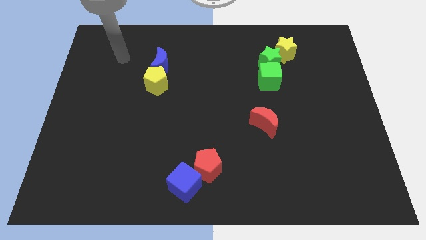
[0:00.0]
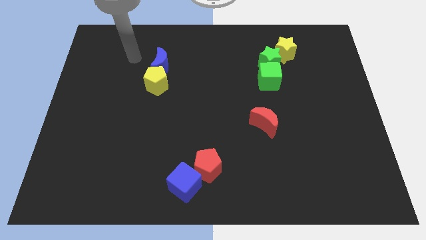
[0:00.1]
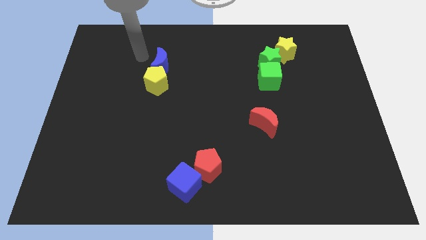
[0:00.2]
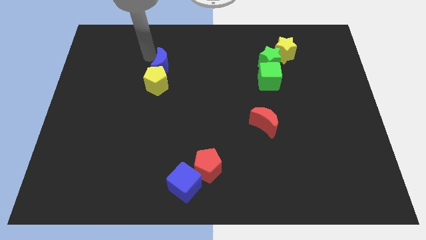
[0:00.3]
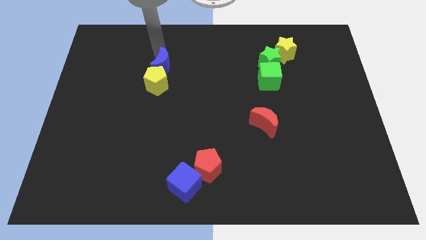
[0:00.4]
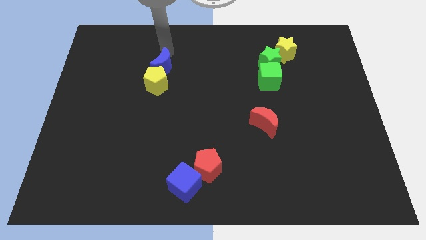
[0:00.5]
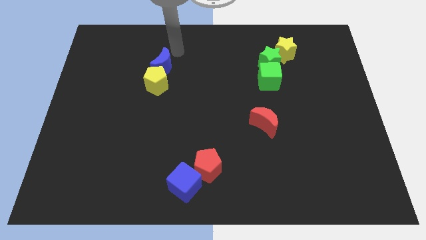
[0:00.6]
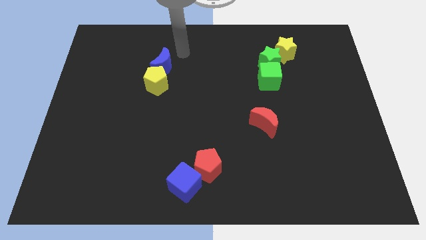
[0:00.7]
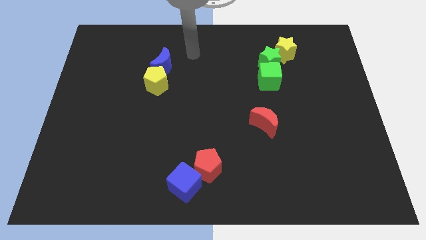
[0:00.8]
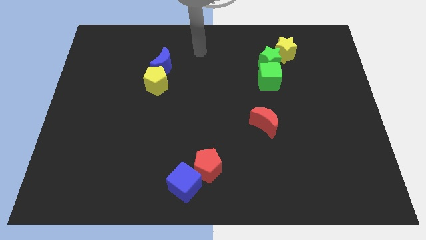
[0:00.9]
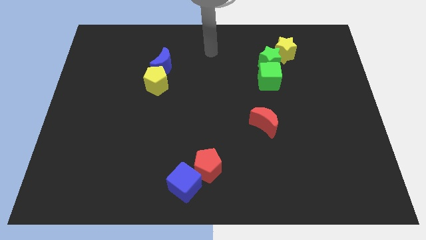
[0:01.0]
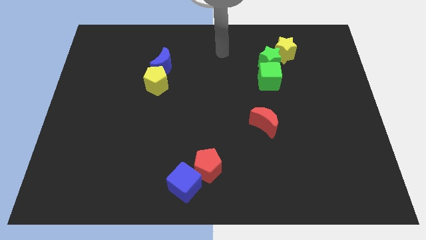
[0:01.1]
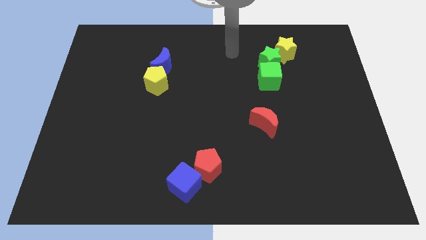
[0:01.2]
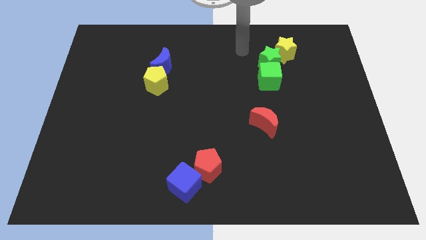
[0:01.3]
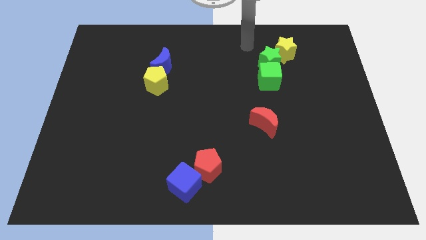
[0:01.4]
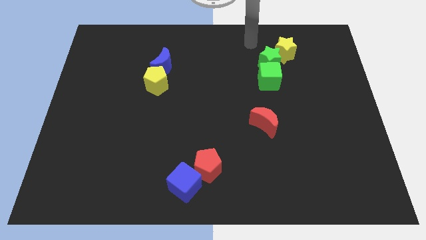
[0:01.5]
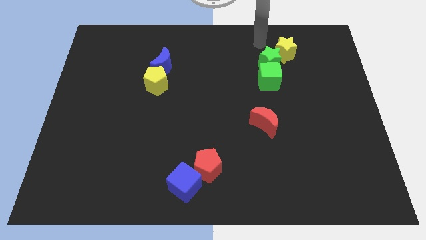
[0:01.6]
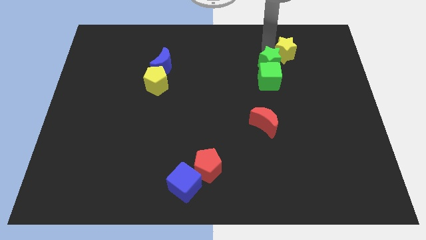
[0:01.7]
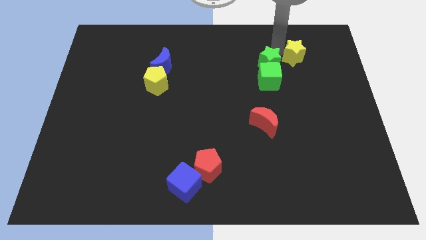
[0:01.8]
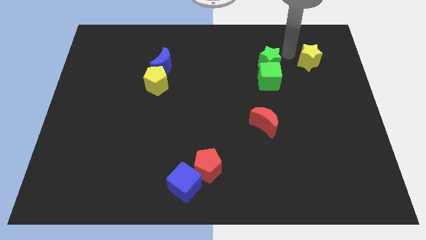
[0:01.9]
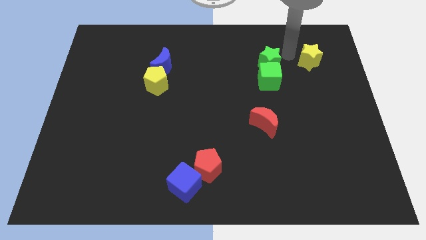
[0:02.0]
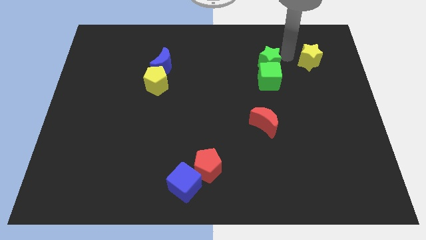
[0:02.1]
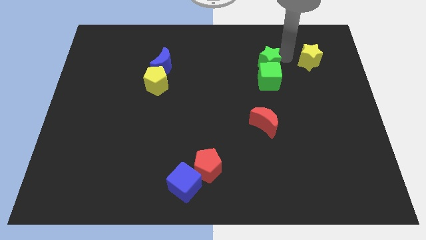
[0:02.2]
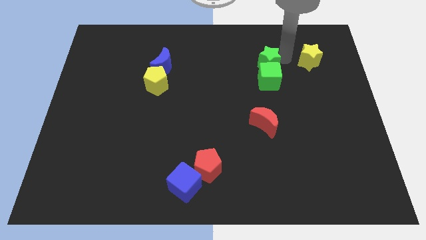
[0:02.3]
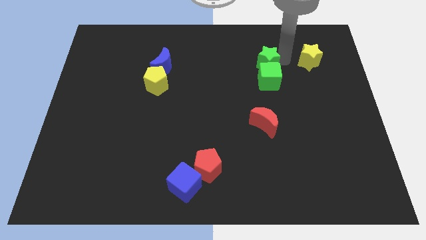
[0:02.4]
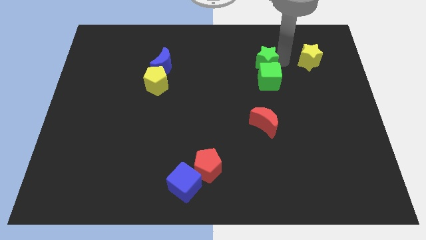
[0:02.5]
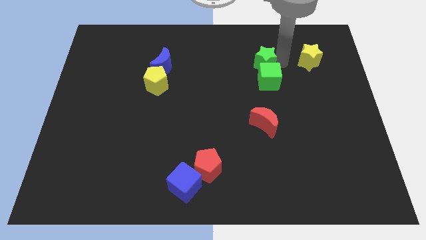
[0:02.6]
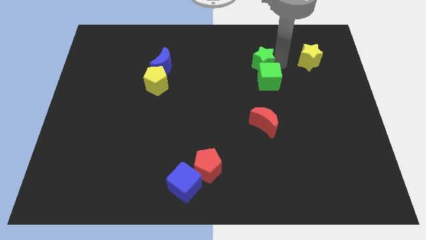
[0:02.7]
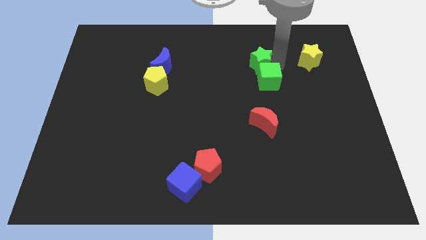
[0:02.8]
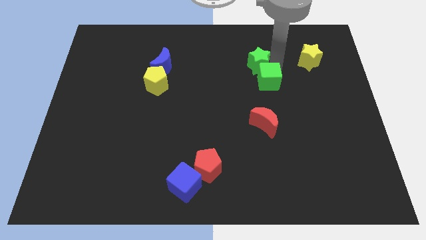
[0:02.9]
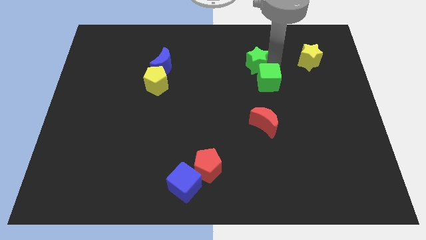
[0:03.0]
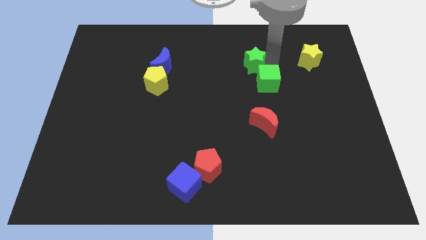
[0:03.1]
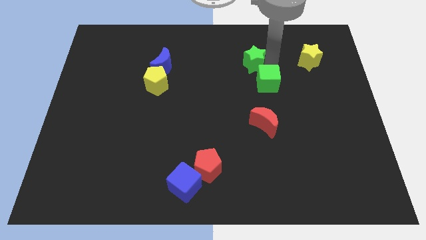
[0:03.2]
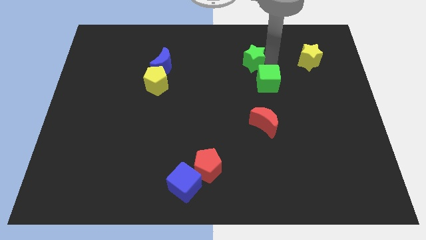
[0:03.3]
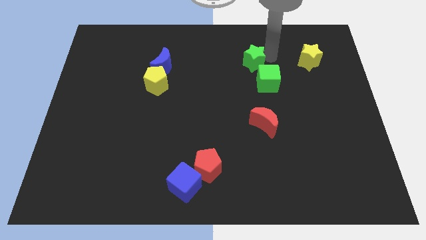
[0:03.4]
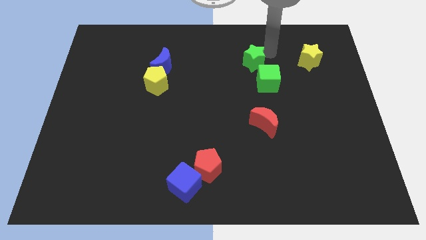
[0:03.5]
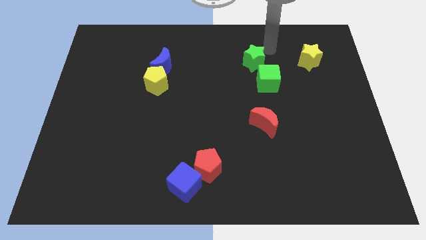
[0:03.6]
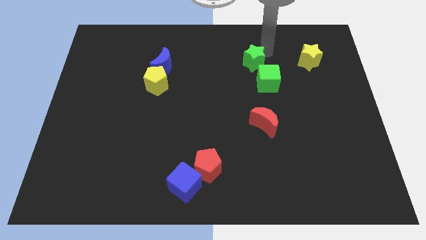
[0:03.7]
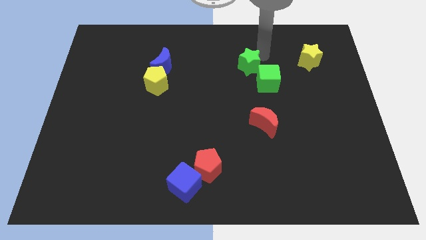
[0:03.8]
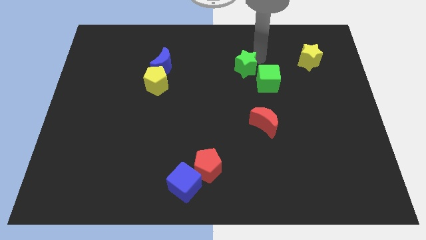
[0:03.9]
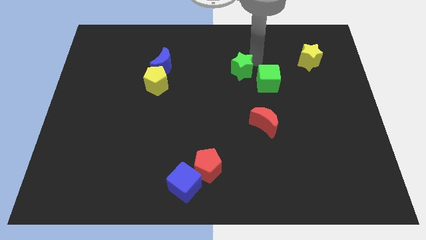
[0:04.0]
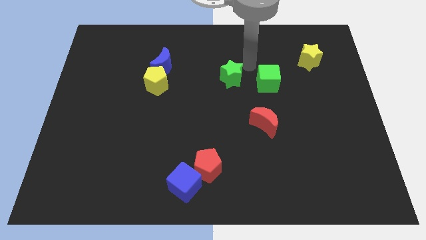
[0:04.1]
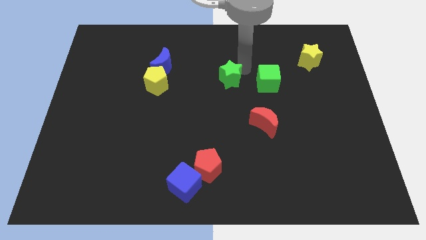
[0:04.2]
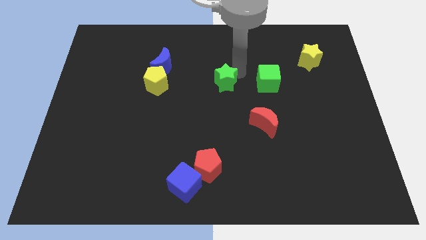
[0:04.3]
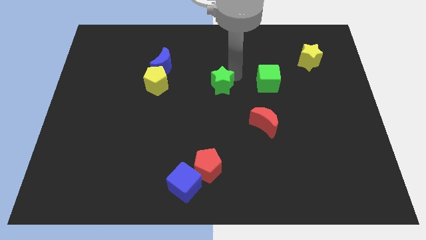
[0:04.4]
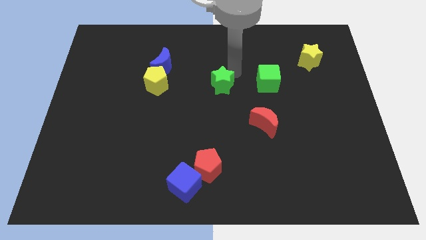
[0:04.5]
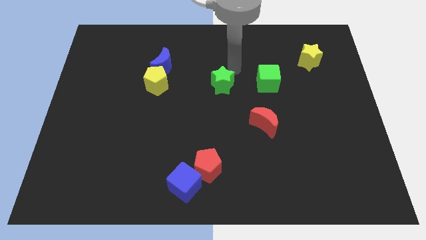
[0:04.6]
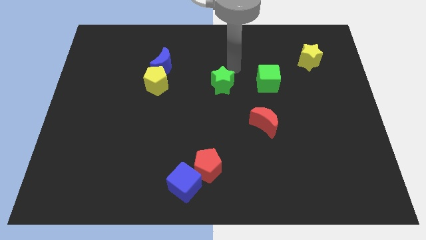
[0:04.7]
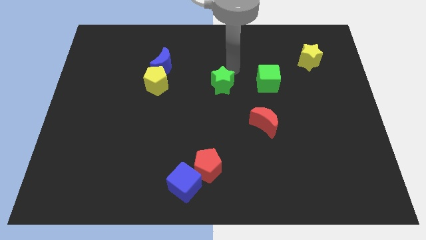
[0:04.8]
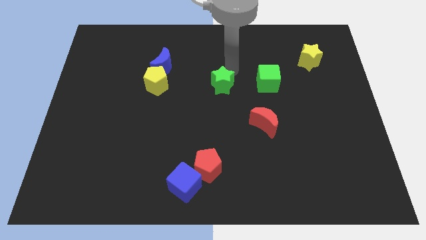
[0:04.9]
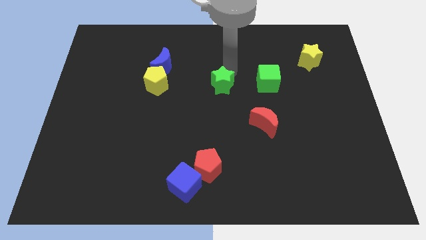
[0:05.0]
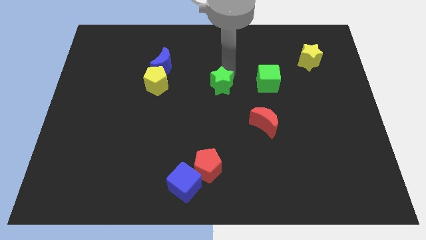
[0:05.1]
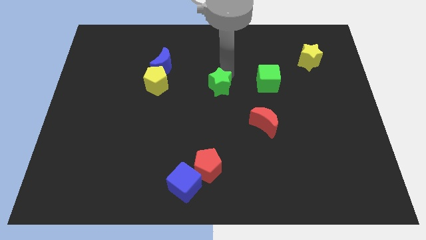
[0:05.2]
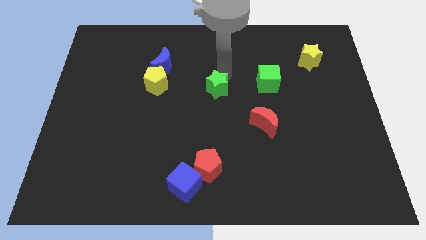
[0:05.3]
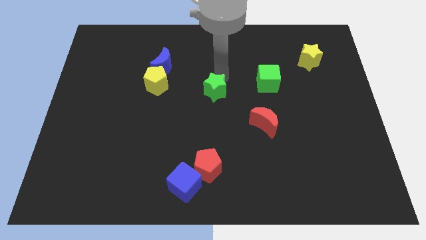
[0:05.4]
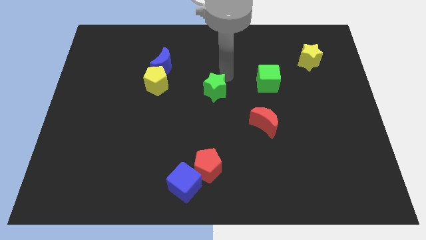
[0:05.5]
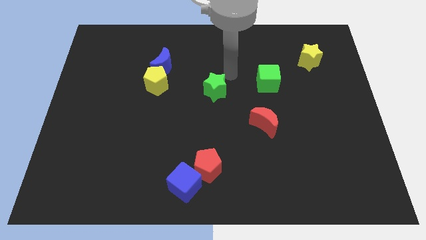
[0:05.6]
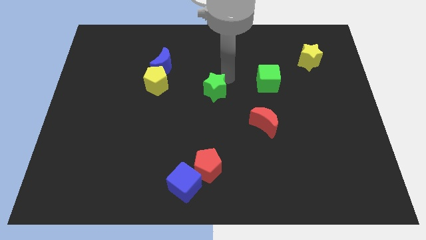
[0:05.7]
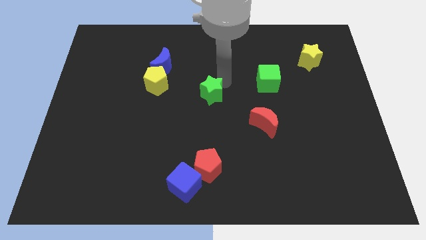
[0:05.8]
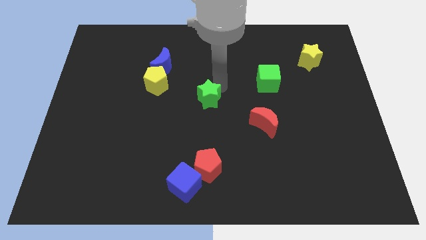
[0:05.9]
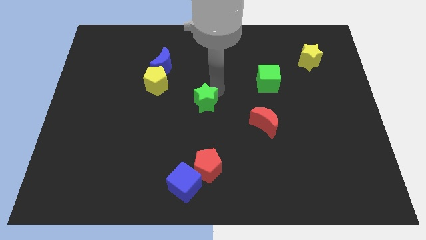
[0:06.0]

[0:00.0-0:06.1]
move the green star downwards and left diagonally

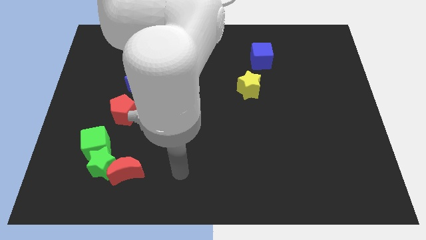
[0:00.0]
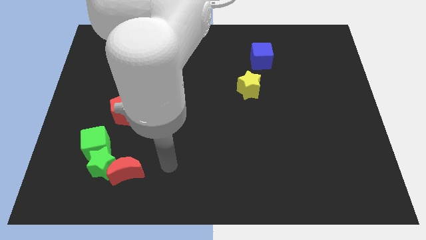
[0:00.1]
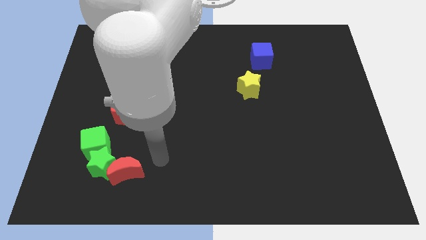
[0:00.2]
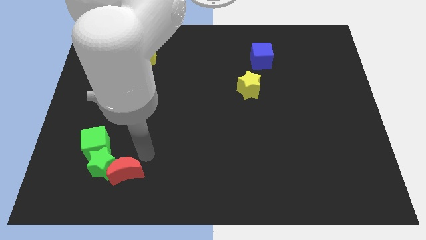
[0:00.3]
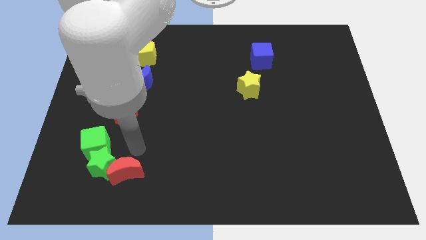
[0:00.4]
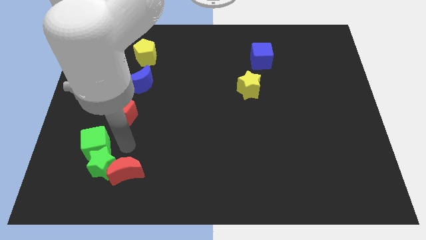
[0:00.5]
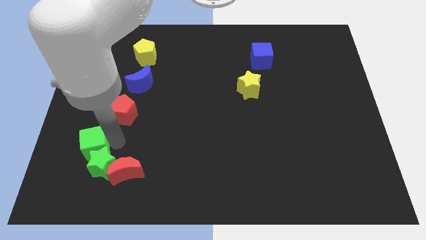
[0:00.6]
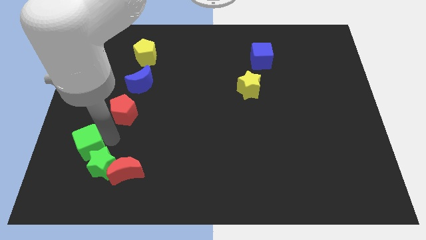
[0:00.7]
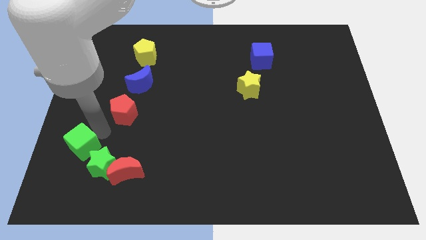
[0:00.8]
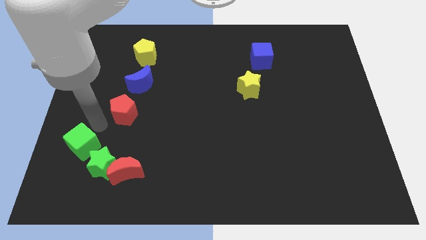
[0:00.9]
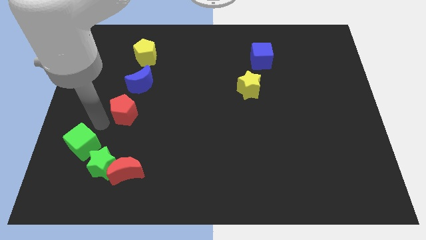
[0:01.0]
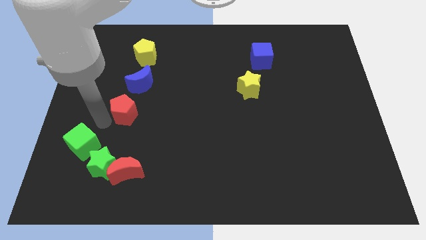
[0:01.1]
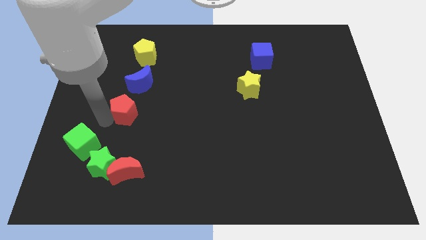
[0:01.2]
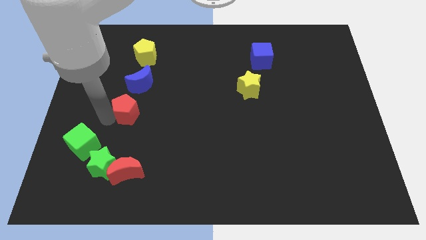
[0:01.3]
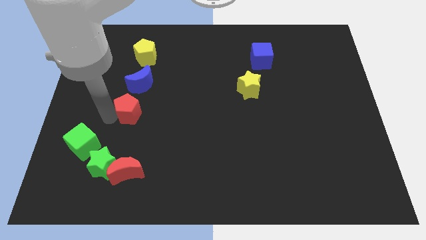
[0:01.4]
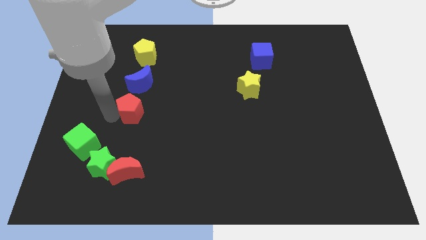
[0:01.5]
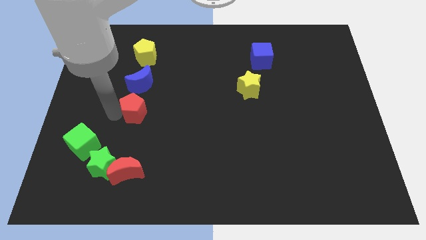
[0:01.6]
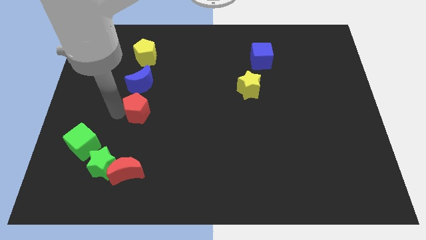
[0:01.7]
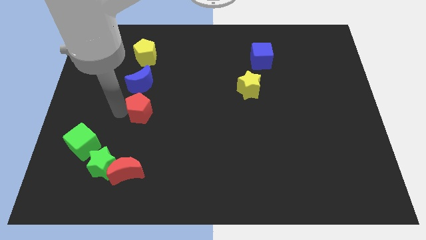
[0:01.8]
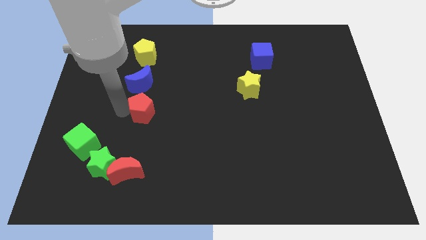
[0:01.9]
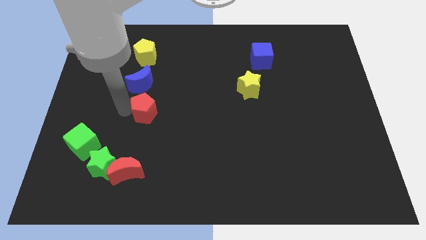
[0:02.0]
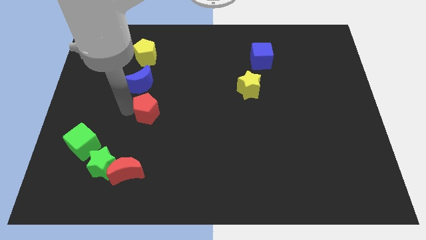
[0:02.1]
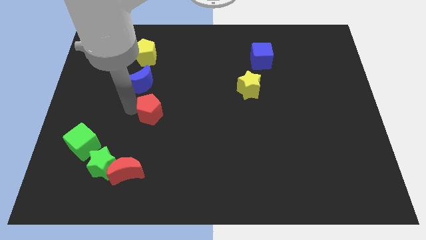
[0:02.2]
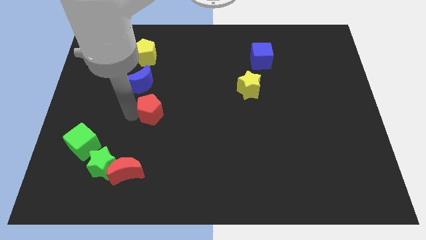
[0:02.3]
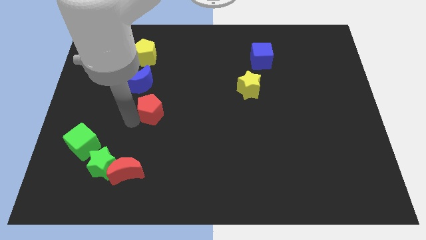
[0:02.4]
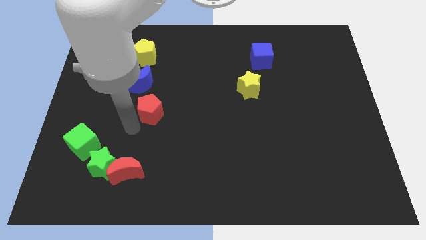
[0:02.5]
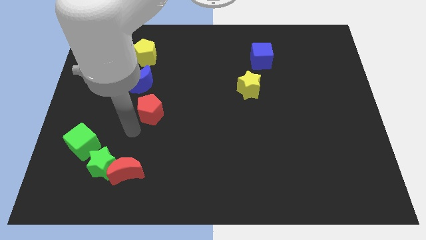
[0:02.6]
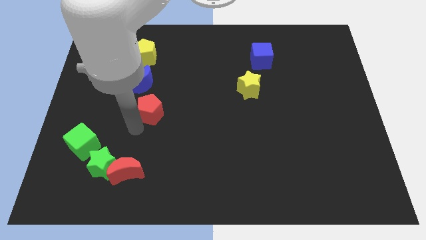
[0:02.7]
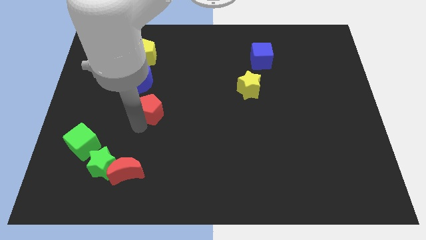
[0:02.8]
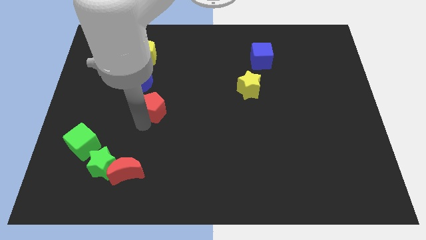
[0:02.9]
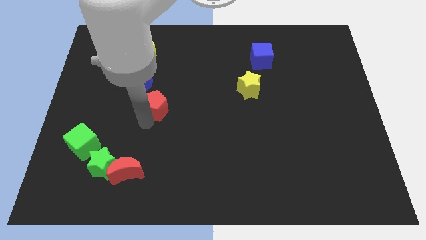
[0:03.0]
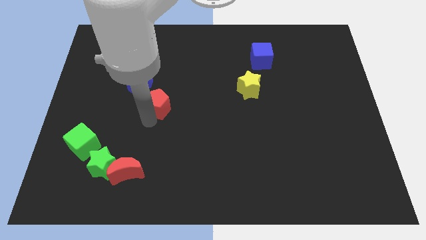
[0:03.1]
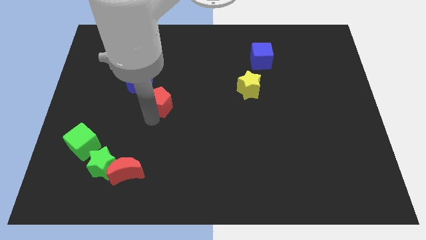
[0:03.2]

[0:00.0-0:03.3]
slide the red pentagon a little bit diagonally up and to the right
